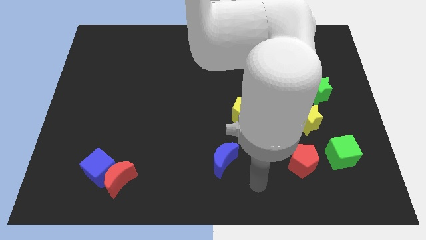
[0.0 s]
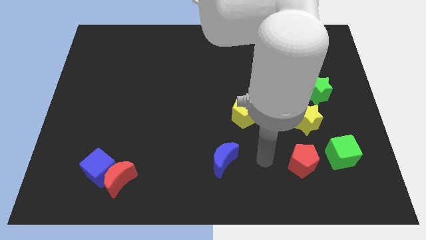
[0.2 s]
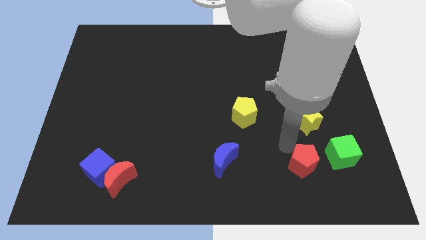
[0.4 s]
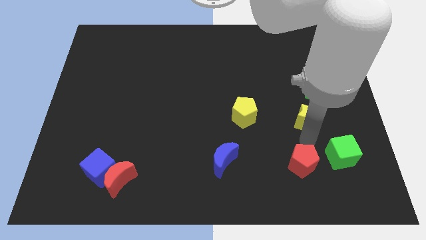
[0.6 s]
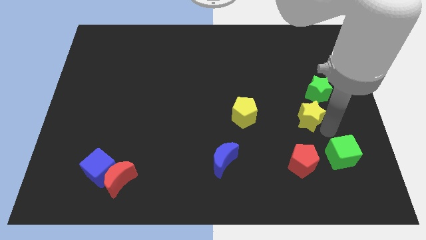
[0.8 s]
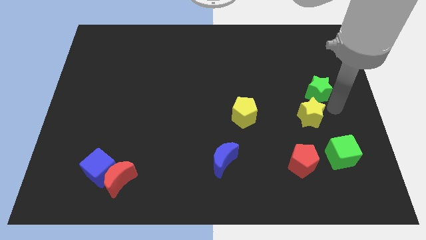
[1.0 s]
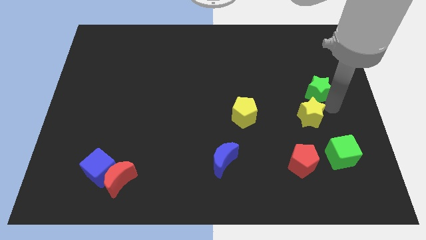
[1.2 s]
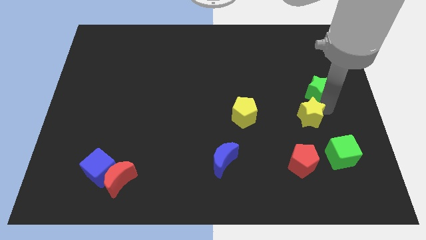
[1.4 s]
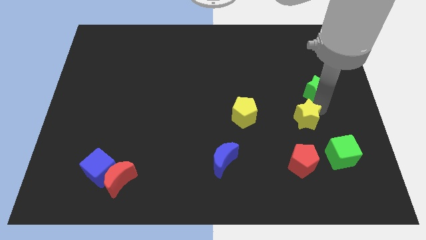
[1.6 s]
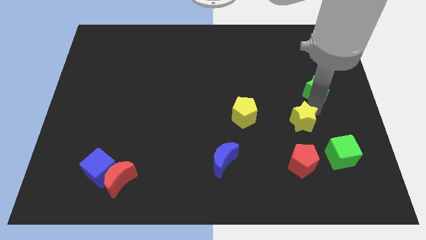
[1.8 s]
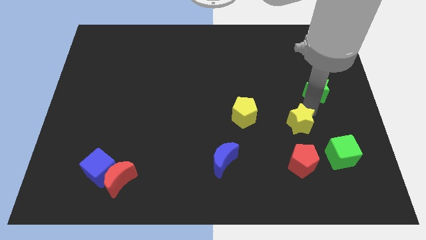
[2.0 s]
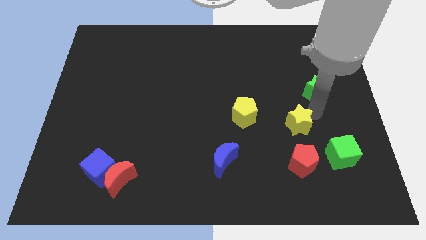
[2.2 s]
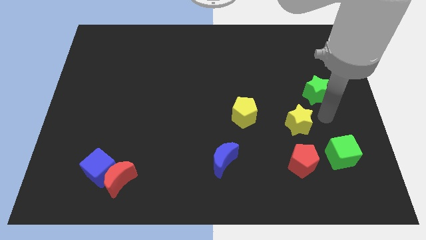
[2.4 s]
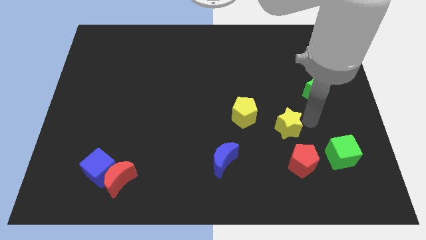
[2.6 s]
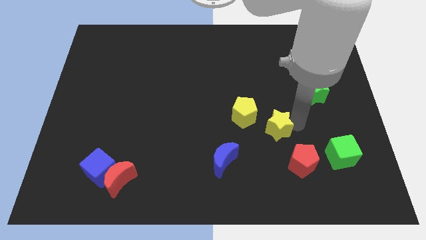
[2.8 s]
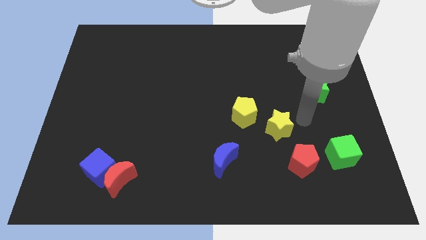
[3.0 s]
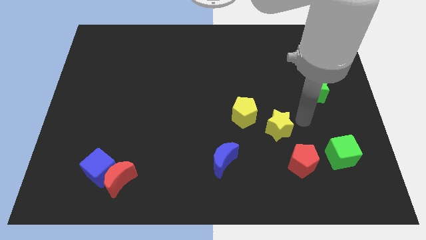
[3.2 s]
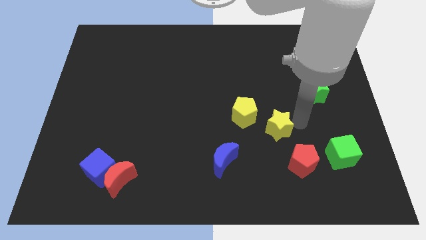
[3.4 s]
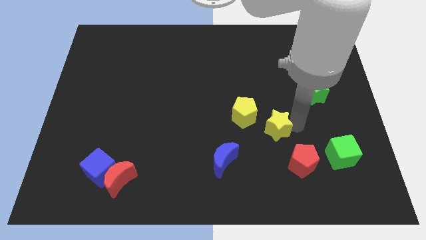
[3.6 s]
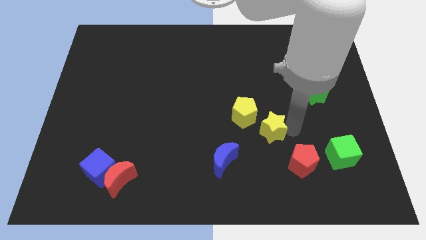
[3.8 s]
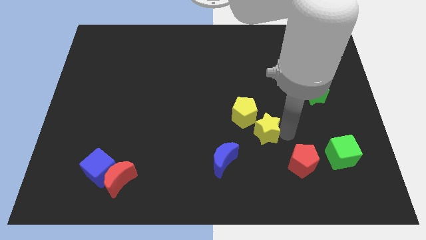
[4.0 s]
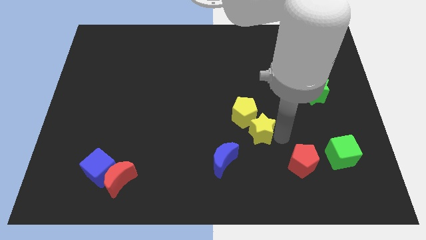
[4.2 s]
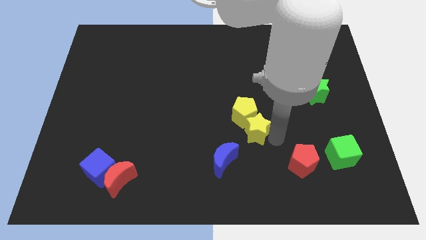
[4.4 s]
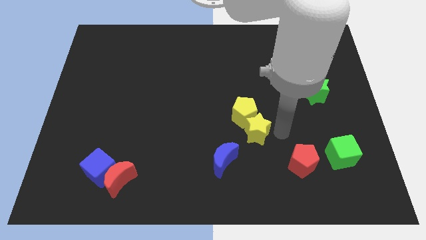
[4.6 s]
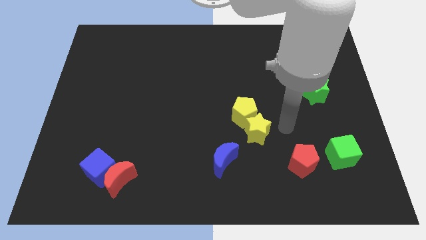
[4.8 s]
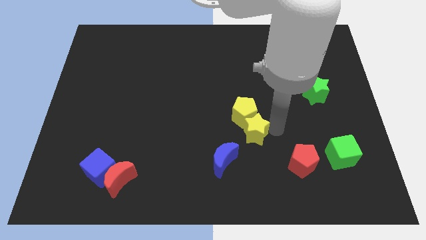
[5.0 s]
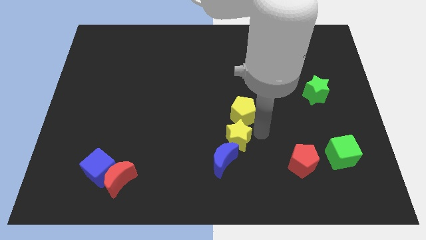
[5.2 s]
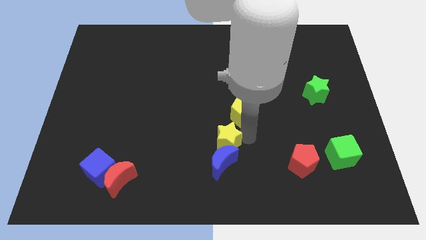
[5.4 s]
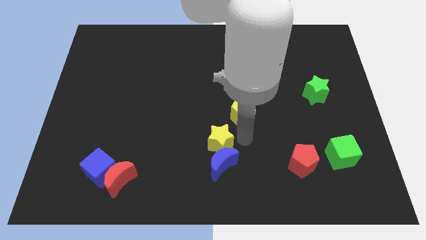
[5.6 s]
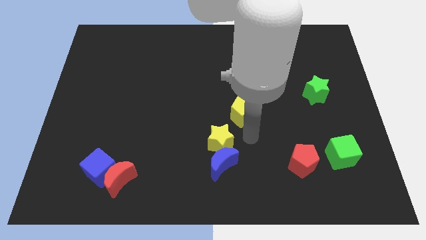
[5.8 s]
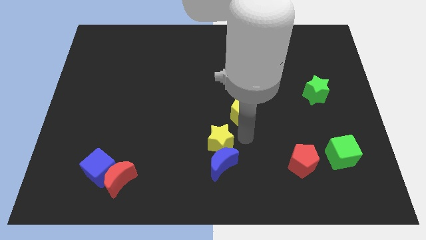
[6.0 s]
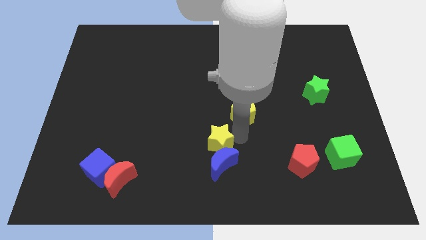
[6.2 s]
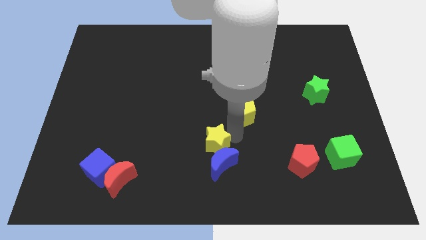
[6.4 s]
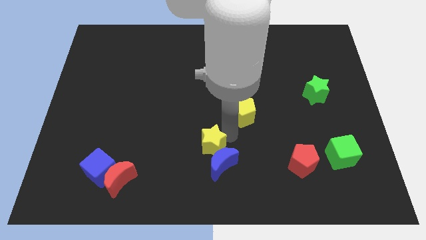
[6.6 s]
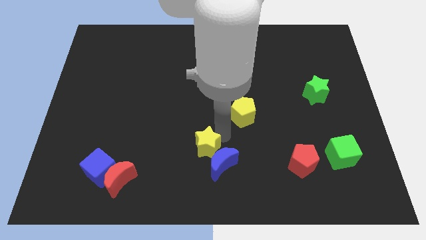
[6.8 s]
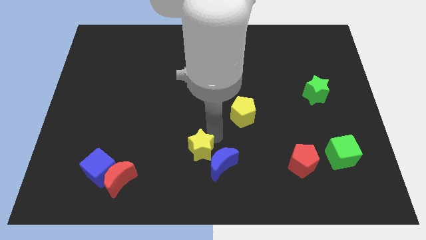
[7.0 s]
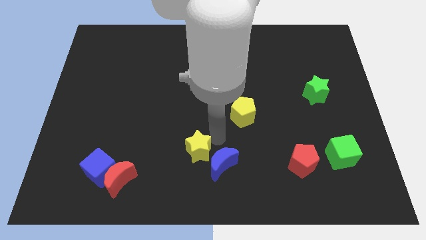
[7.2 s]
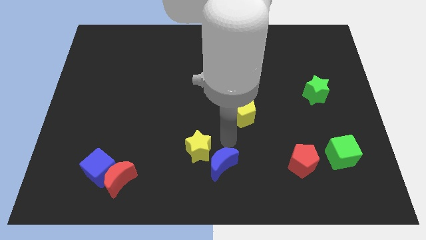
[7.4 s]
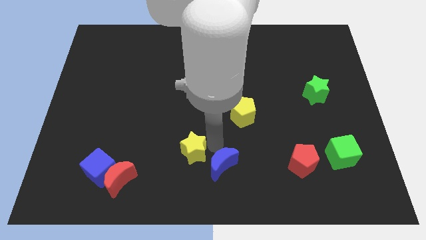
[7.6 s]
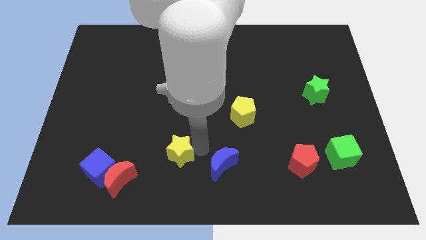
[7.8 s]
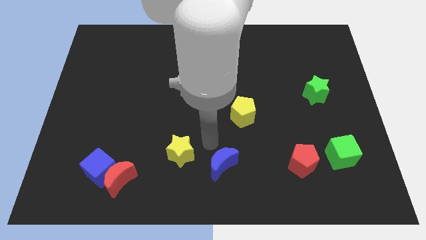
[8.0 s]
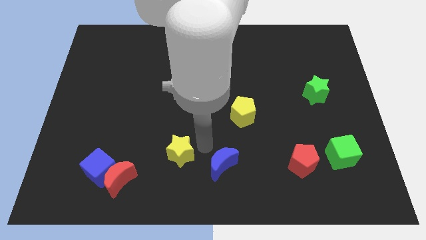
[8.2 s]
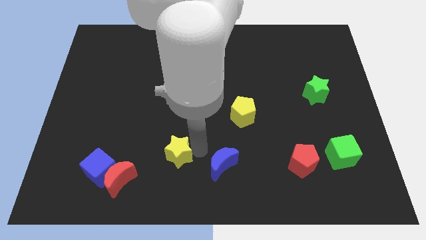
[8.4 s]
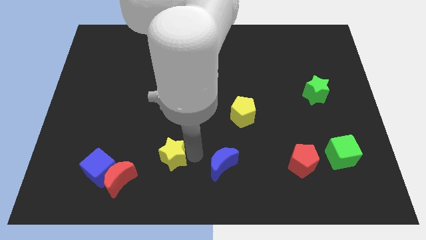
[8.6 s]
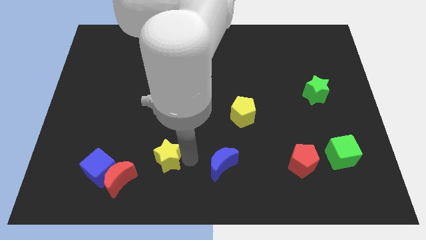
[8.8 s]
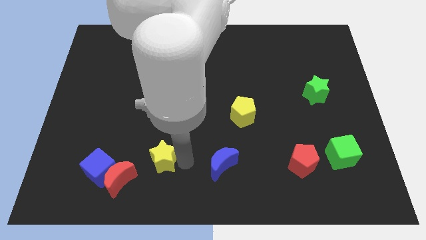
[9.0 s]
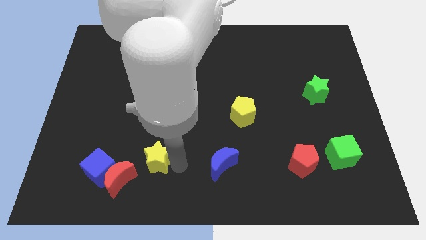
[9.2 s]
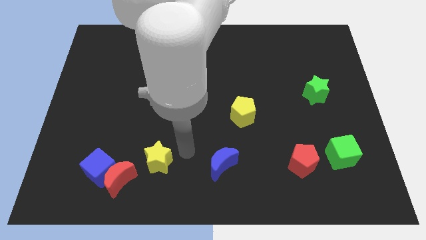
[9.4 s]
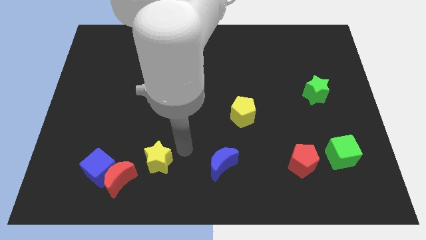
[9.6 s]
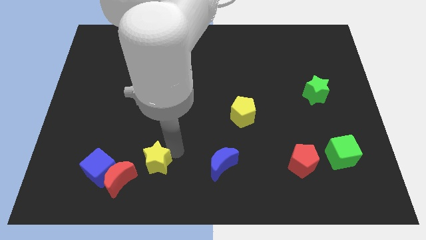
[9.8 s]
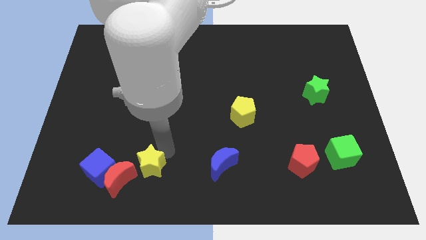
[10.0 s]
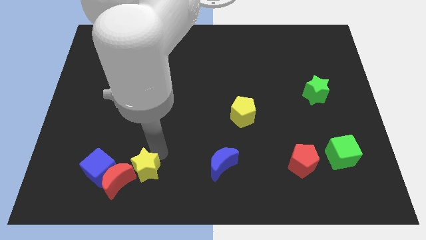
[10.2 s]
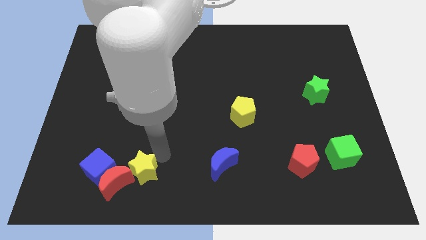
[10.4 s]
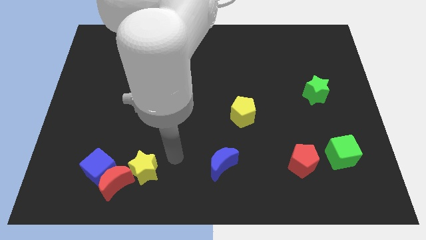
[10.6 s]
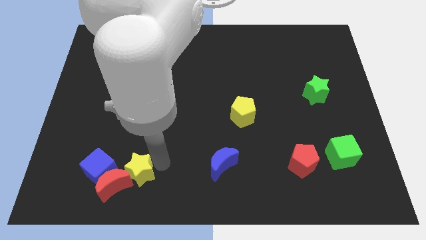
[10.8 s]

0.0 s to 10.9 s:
push the yellow star close to the red moon

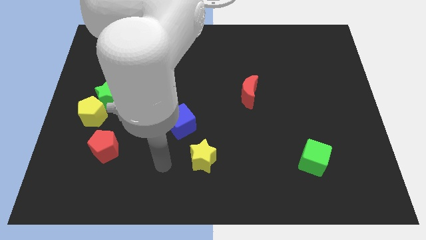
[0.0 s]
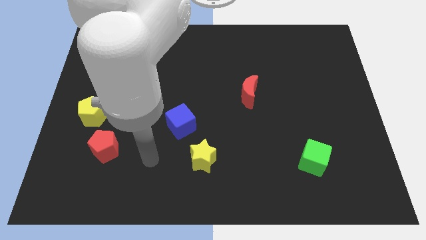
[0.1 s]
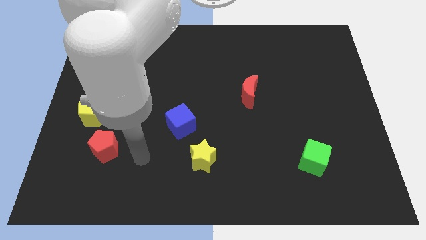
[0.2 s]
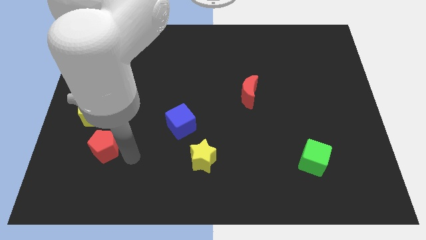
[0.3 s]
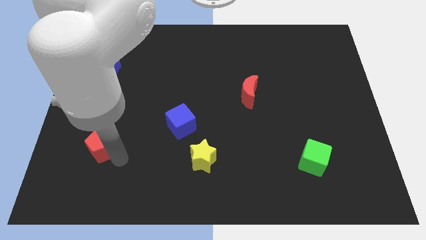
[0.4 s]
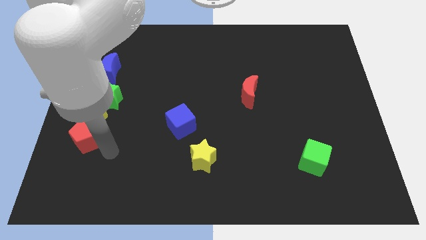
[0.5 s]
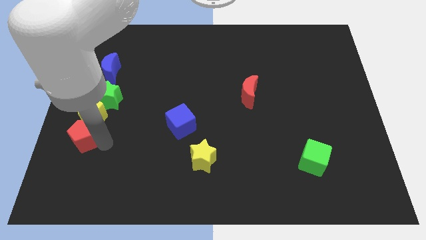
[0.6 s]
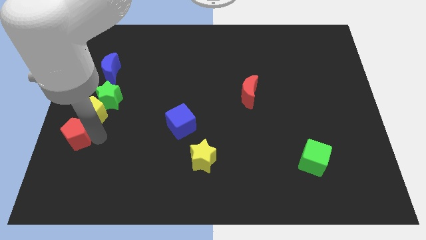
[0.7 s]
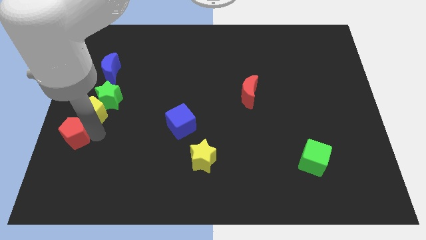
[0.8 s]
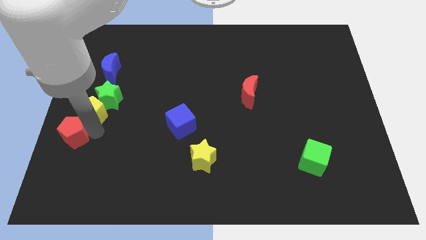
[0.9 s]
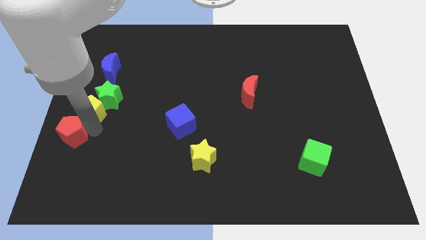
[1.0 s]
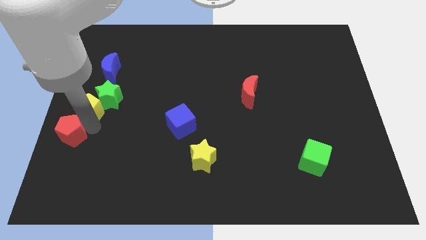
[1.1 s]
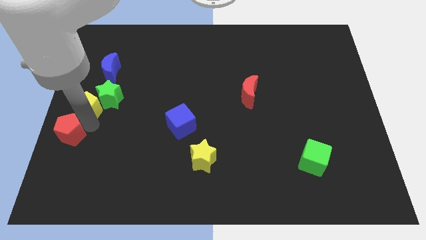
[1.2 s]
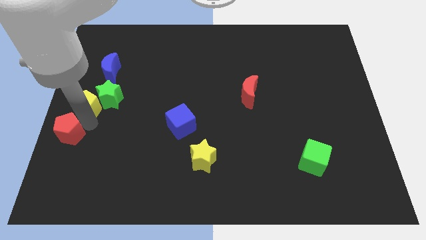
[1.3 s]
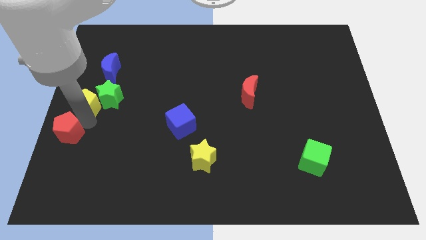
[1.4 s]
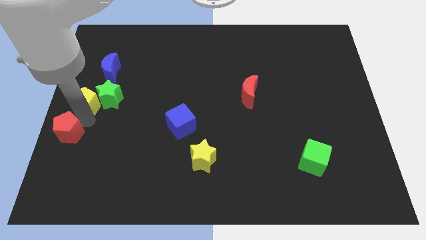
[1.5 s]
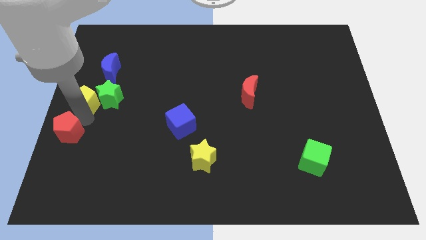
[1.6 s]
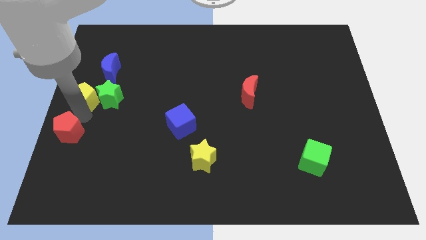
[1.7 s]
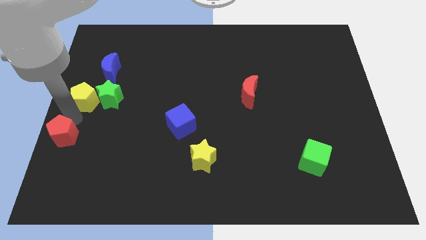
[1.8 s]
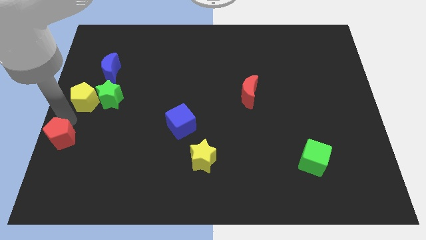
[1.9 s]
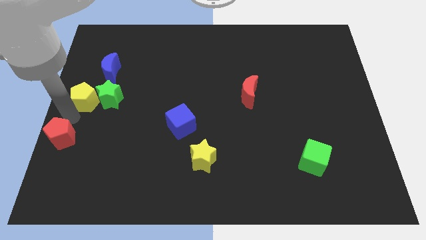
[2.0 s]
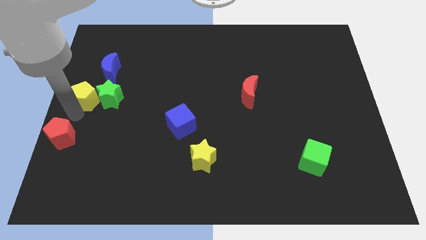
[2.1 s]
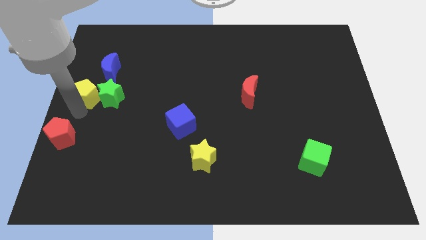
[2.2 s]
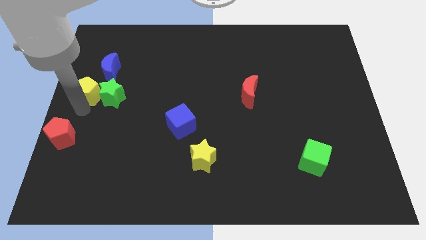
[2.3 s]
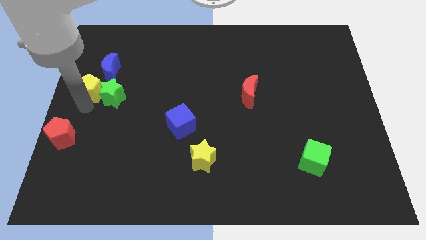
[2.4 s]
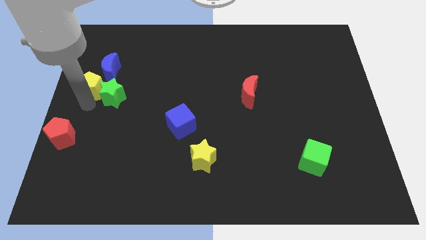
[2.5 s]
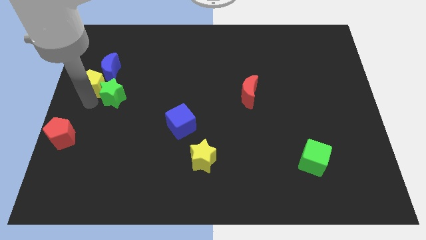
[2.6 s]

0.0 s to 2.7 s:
push the yellow pentagon next to the blue moon
